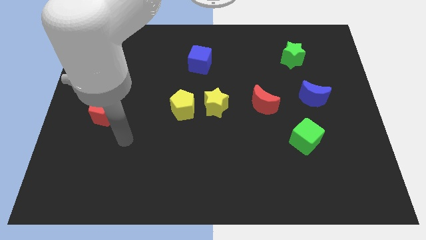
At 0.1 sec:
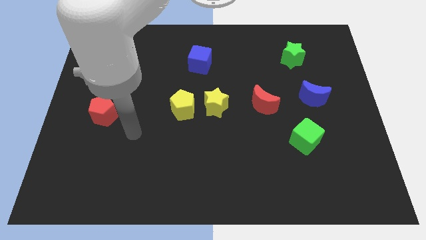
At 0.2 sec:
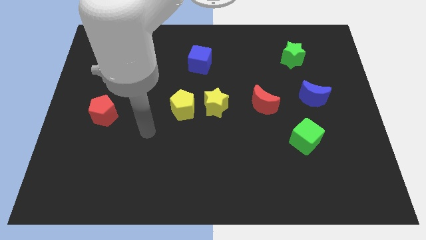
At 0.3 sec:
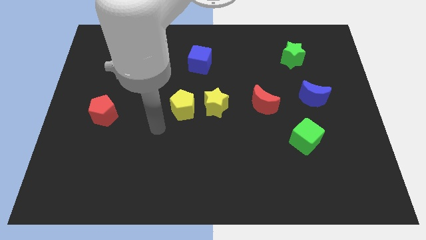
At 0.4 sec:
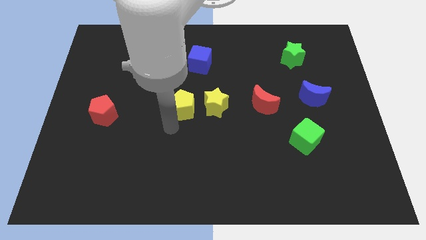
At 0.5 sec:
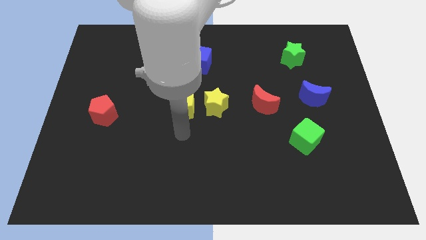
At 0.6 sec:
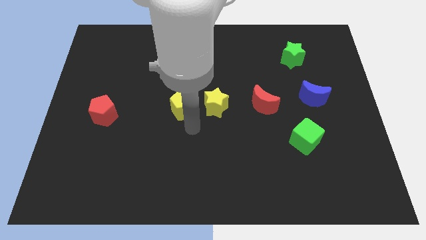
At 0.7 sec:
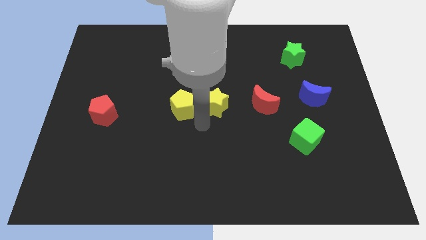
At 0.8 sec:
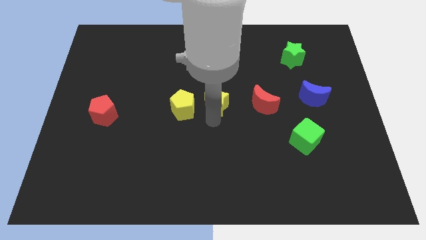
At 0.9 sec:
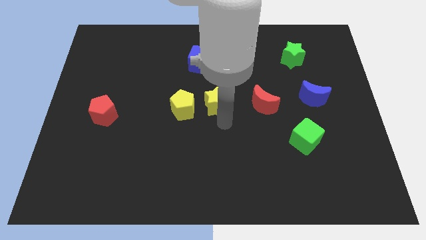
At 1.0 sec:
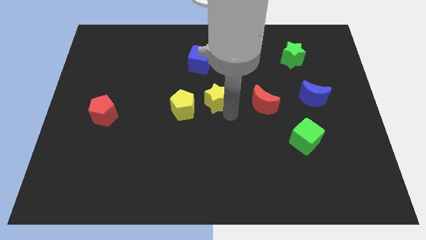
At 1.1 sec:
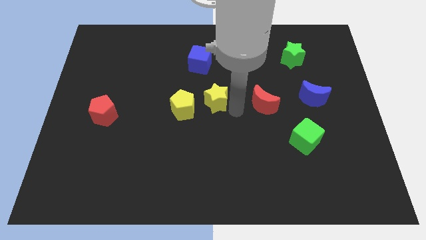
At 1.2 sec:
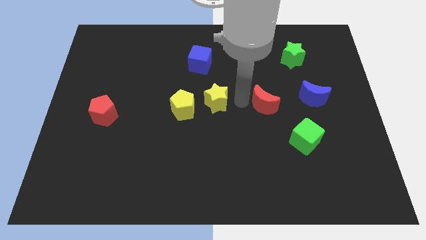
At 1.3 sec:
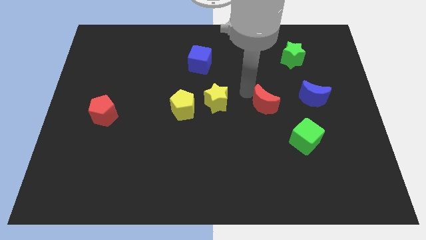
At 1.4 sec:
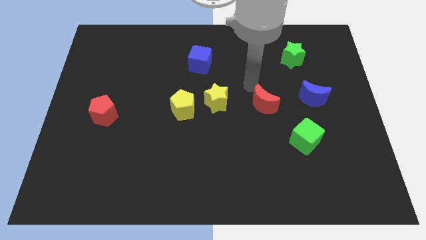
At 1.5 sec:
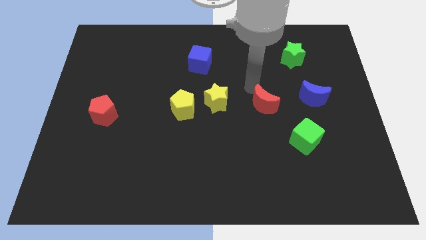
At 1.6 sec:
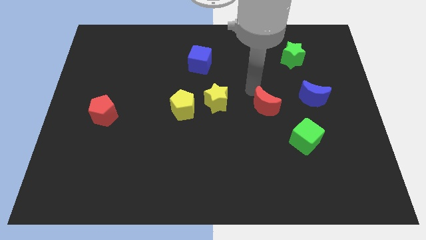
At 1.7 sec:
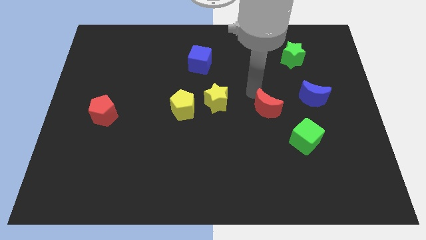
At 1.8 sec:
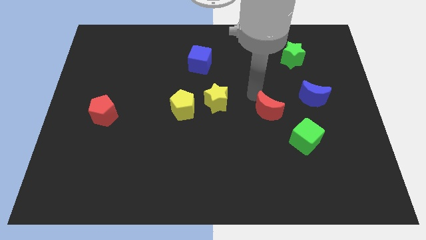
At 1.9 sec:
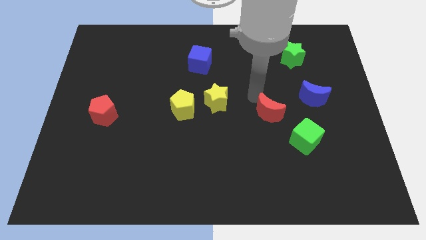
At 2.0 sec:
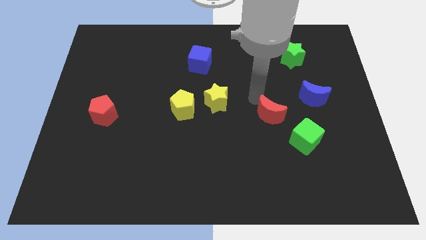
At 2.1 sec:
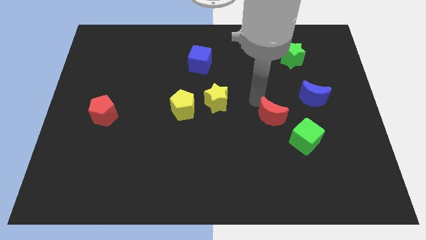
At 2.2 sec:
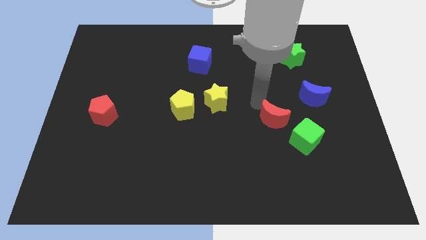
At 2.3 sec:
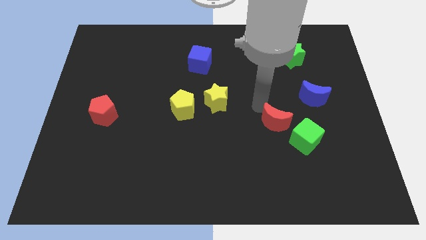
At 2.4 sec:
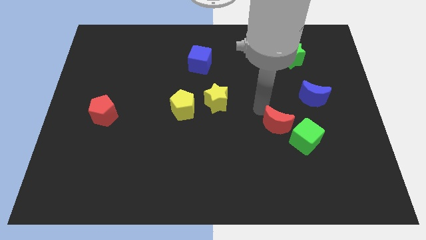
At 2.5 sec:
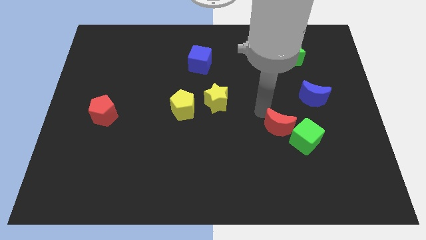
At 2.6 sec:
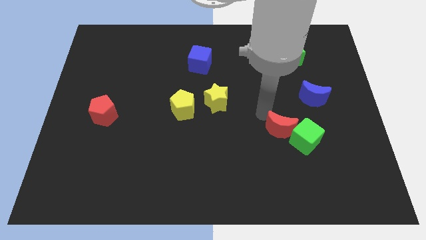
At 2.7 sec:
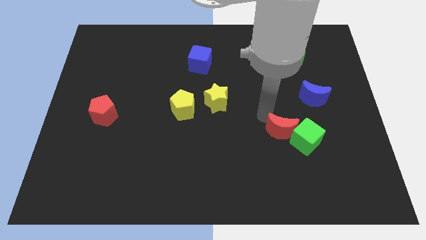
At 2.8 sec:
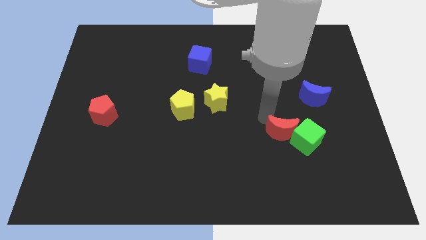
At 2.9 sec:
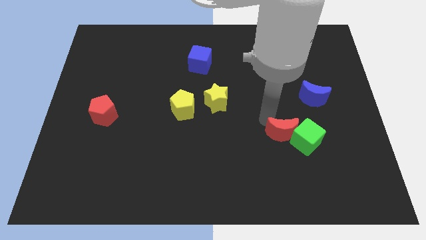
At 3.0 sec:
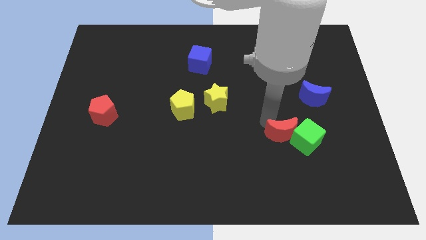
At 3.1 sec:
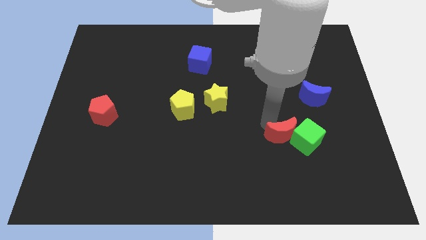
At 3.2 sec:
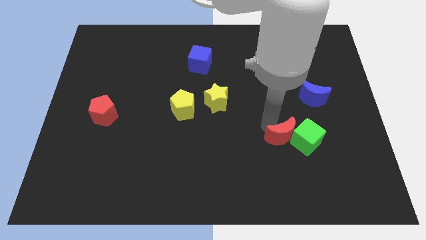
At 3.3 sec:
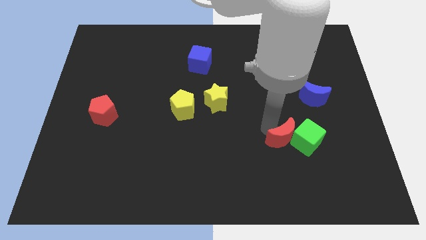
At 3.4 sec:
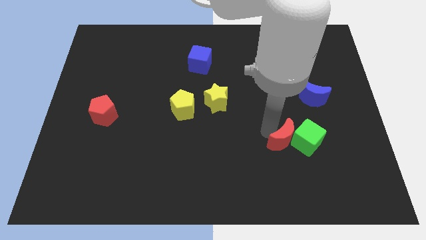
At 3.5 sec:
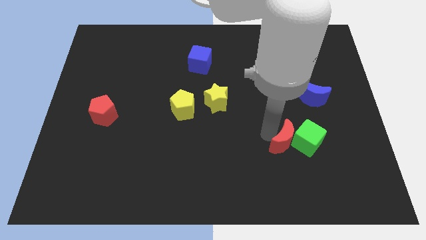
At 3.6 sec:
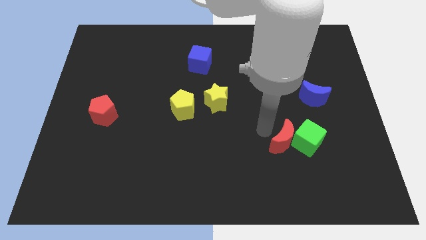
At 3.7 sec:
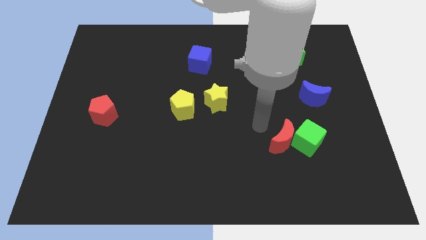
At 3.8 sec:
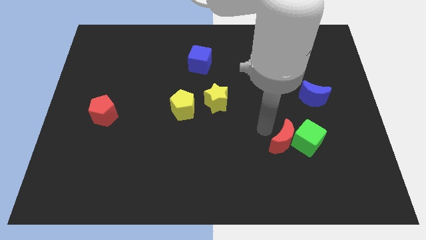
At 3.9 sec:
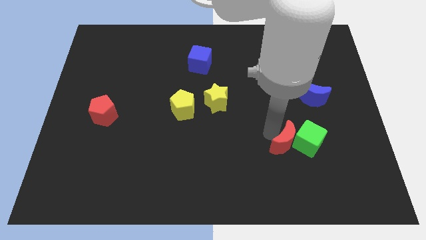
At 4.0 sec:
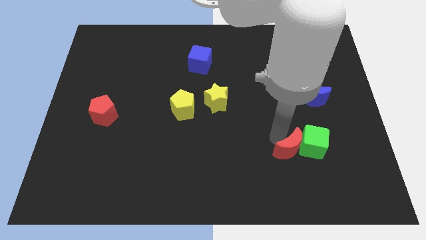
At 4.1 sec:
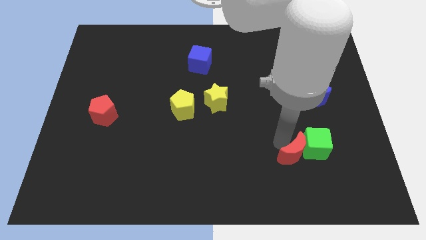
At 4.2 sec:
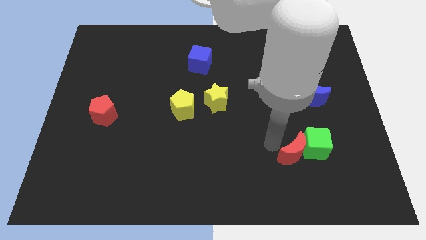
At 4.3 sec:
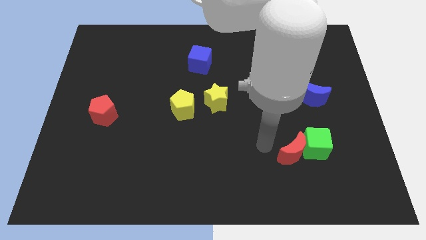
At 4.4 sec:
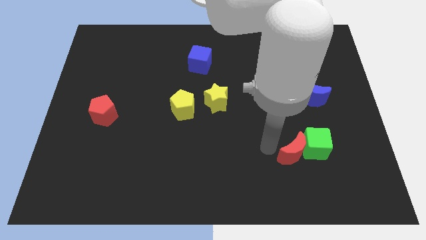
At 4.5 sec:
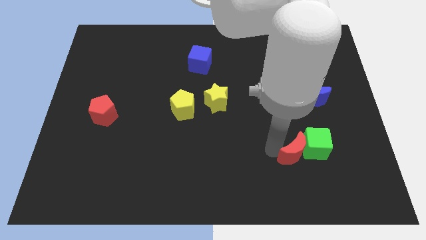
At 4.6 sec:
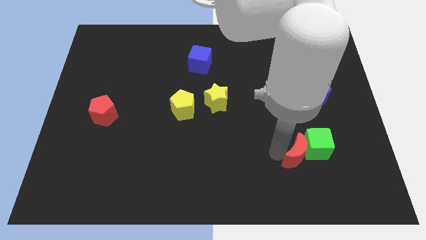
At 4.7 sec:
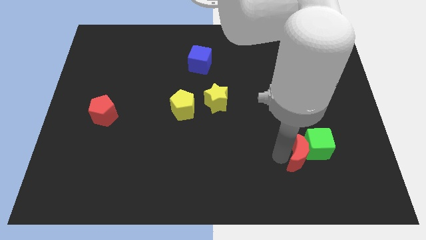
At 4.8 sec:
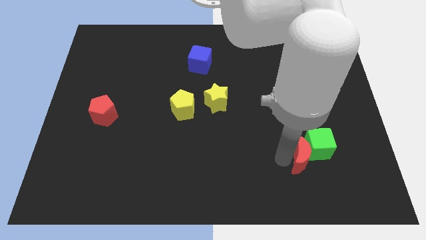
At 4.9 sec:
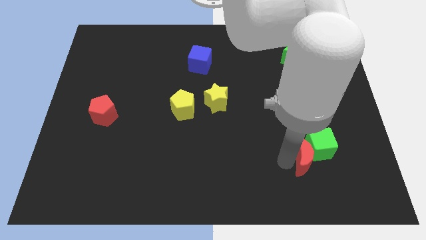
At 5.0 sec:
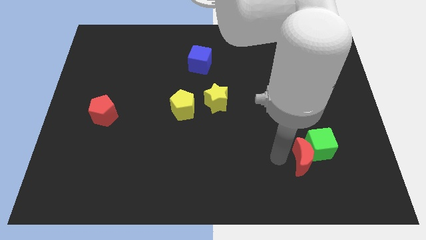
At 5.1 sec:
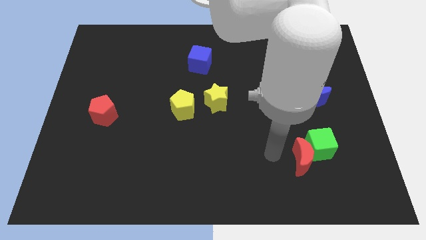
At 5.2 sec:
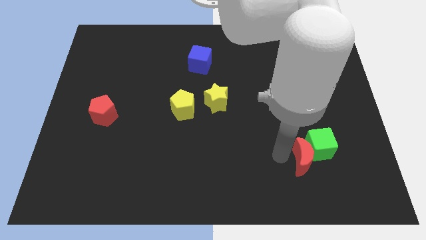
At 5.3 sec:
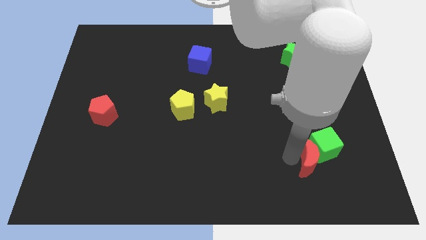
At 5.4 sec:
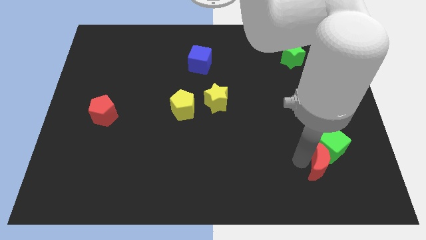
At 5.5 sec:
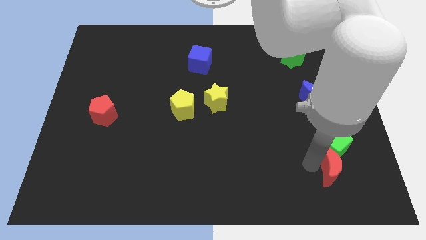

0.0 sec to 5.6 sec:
push the red moon diagonally down and to the right of the green cube

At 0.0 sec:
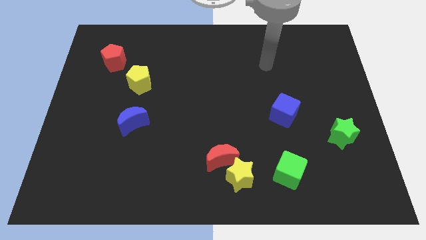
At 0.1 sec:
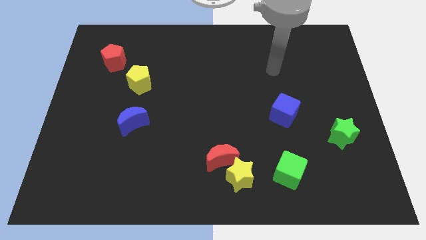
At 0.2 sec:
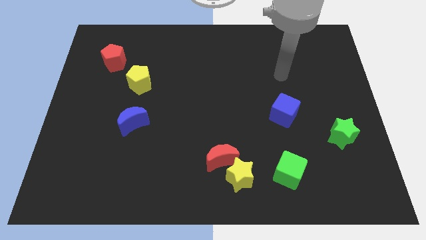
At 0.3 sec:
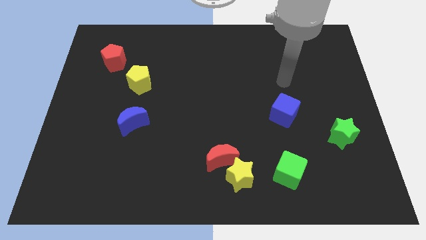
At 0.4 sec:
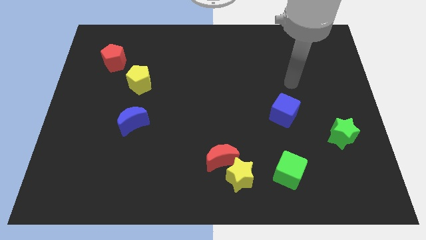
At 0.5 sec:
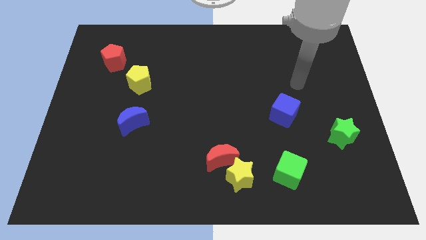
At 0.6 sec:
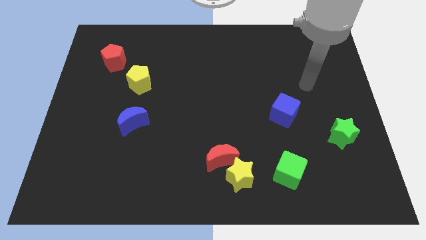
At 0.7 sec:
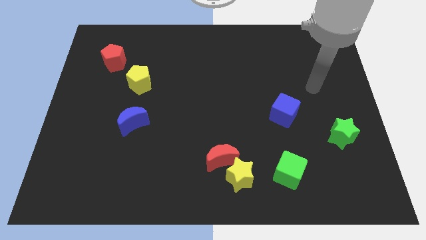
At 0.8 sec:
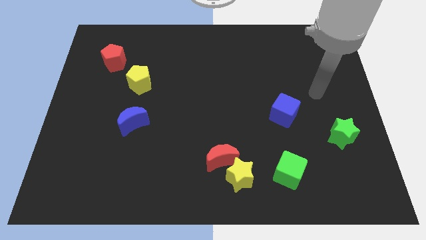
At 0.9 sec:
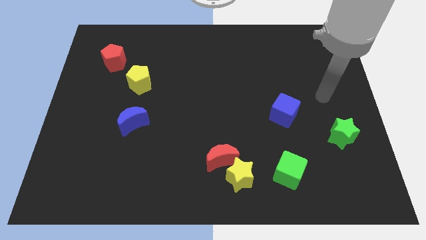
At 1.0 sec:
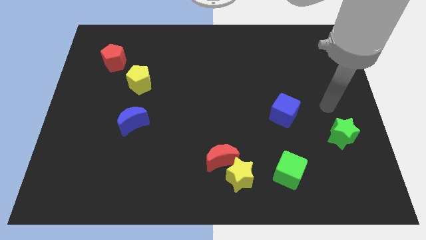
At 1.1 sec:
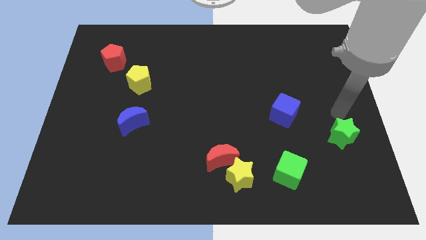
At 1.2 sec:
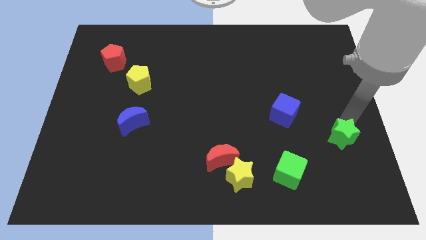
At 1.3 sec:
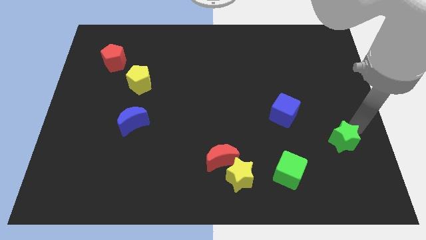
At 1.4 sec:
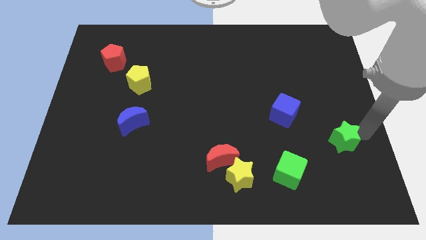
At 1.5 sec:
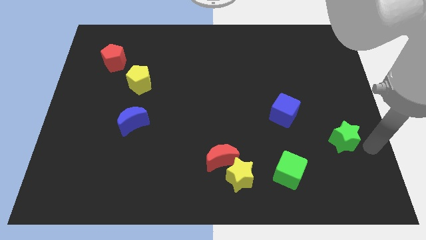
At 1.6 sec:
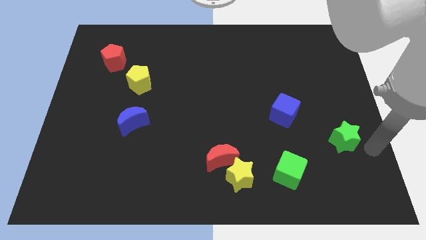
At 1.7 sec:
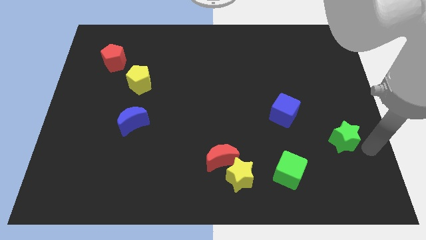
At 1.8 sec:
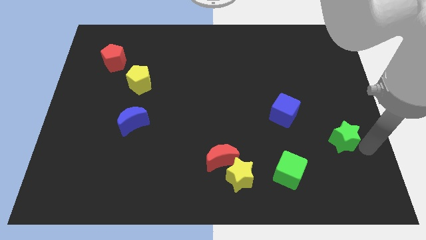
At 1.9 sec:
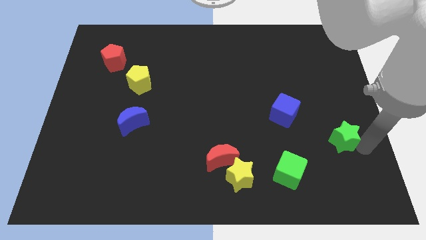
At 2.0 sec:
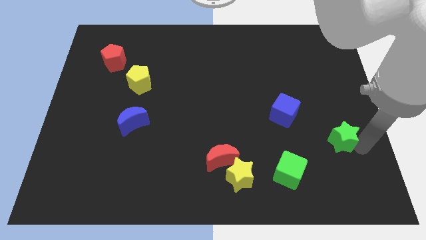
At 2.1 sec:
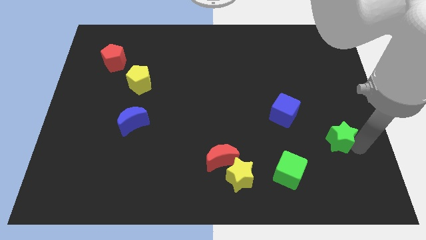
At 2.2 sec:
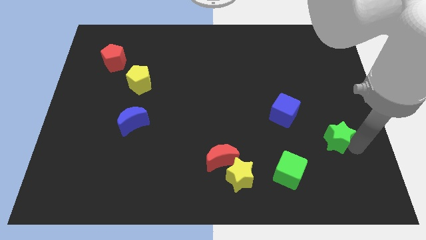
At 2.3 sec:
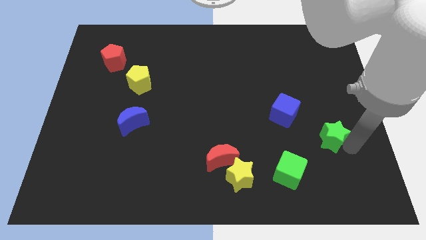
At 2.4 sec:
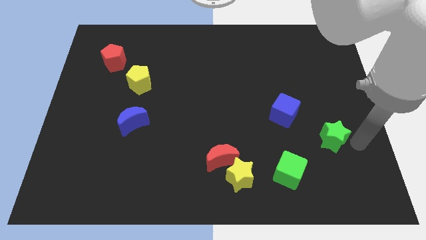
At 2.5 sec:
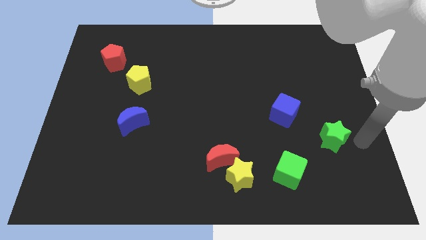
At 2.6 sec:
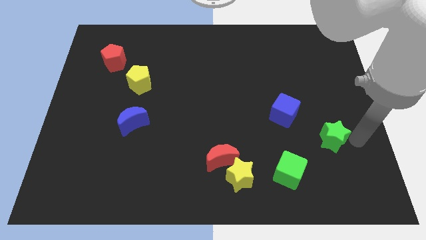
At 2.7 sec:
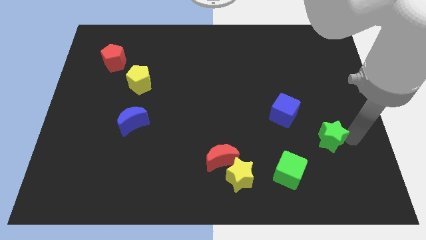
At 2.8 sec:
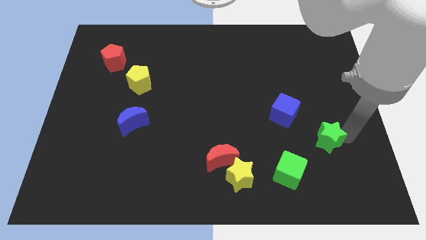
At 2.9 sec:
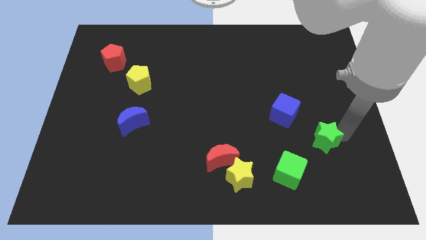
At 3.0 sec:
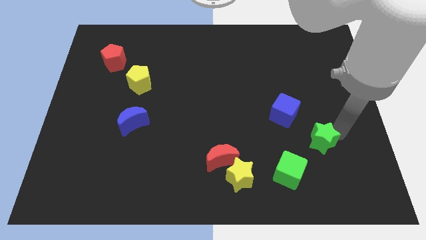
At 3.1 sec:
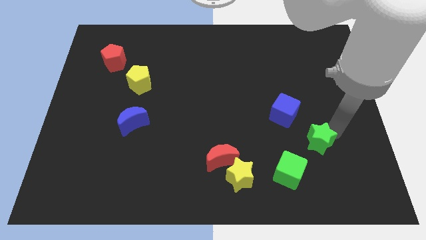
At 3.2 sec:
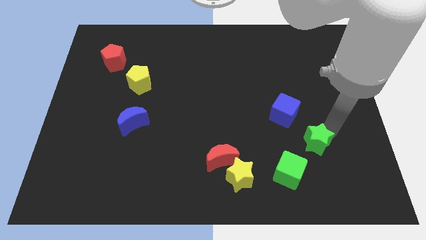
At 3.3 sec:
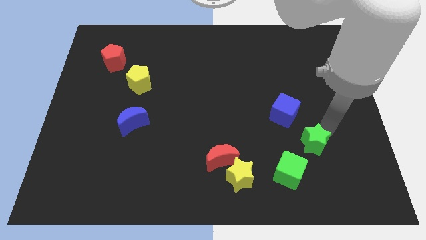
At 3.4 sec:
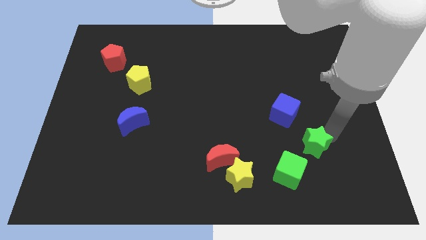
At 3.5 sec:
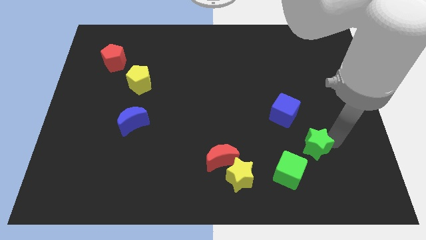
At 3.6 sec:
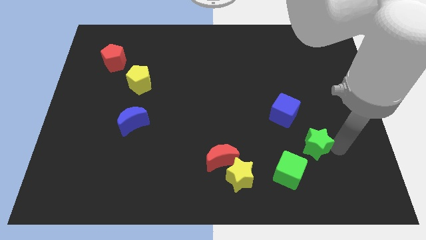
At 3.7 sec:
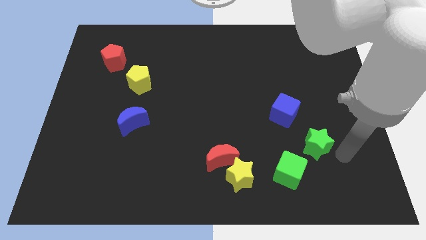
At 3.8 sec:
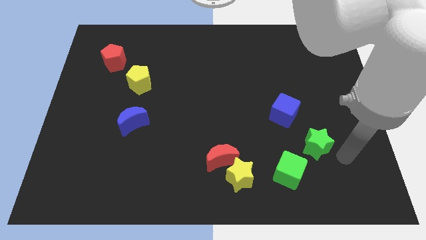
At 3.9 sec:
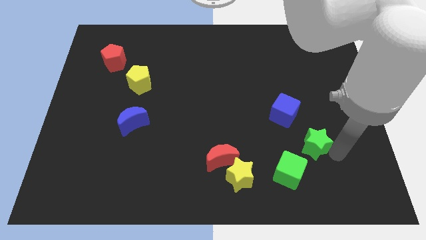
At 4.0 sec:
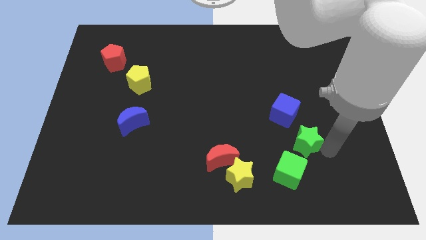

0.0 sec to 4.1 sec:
push the green star to the top of the green cube
